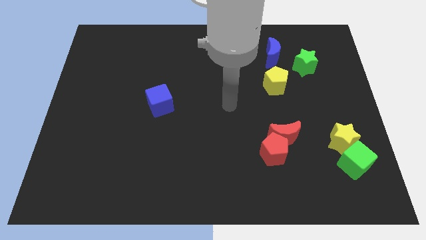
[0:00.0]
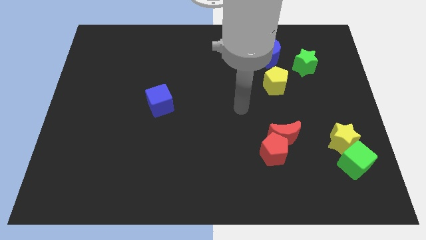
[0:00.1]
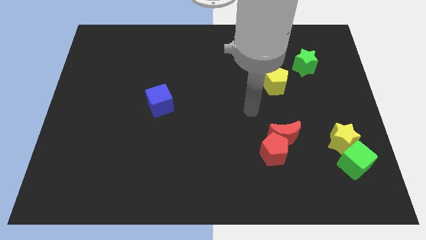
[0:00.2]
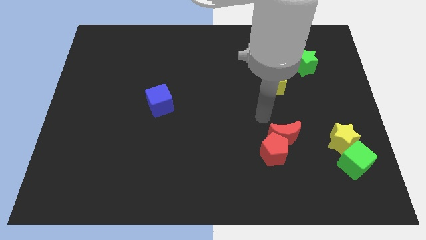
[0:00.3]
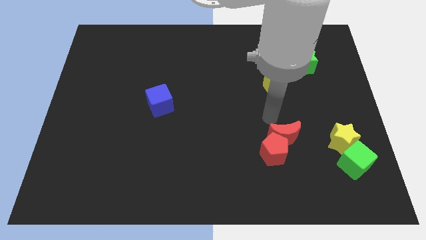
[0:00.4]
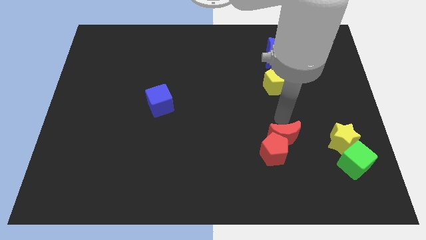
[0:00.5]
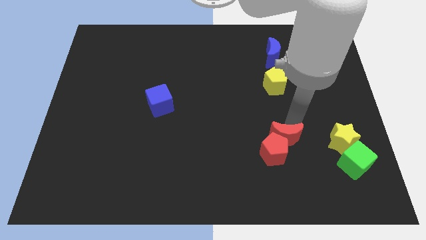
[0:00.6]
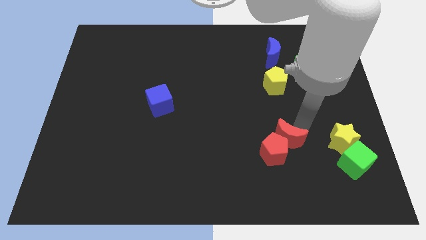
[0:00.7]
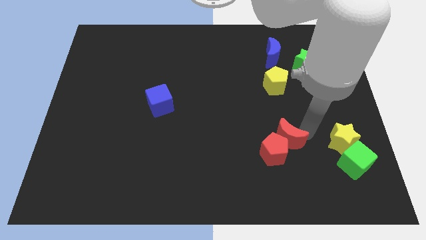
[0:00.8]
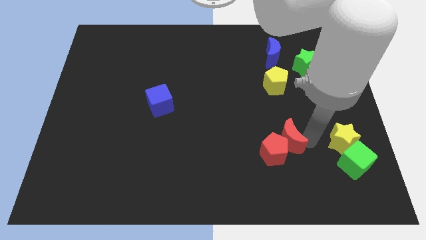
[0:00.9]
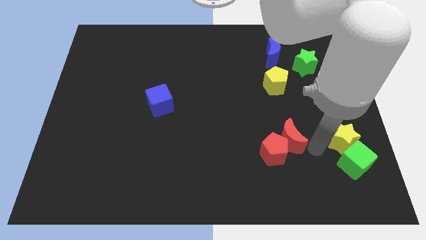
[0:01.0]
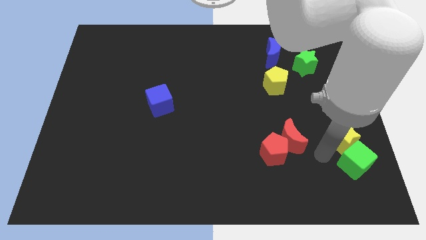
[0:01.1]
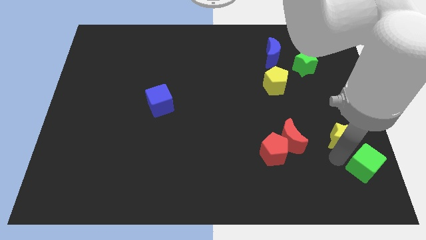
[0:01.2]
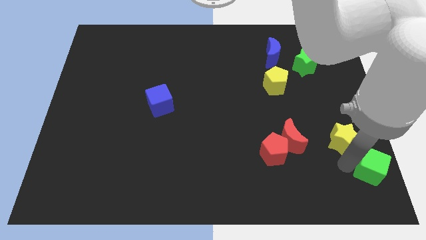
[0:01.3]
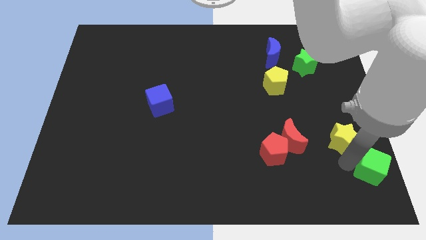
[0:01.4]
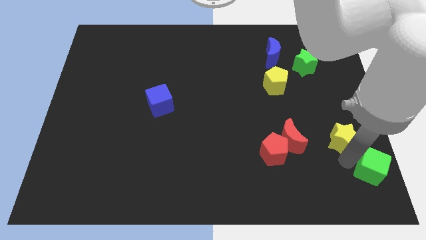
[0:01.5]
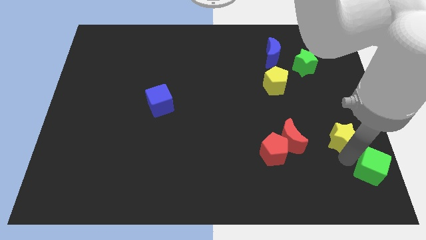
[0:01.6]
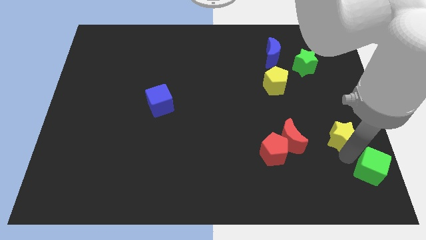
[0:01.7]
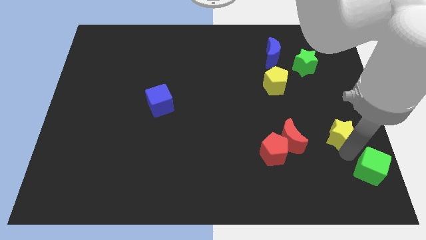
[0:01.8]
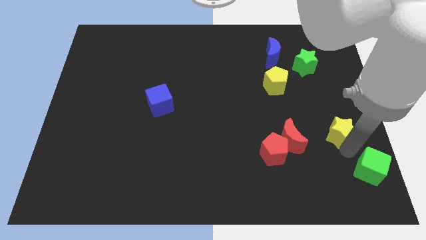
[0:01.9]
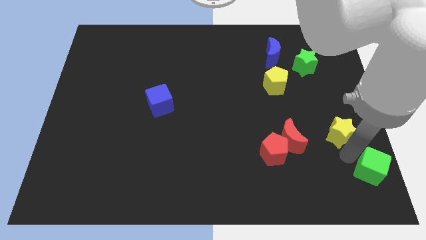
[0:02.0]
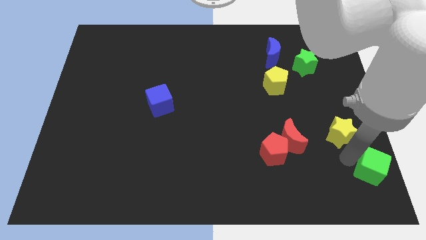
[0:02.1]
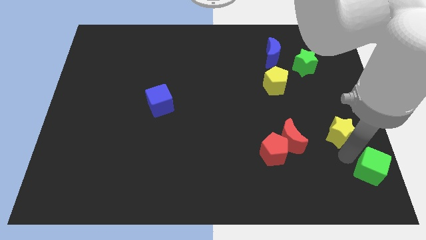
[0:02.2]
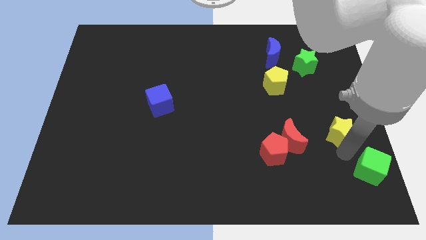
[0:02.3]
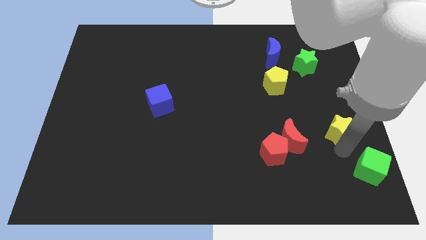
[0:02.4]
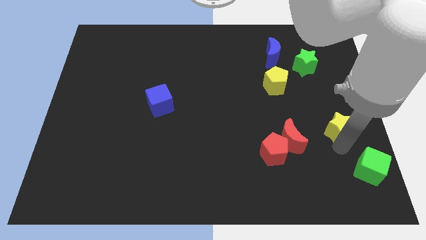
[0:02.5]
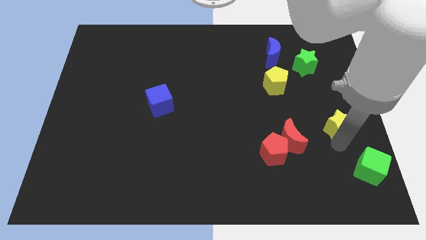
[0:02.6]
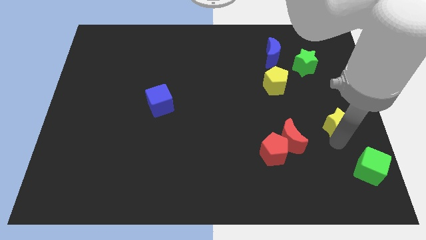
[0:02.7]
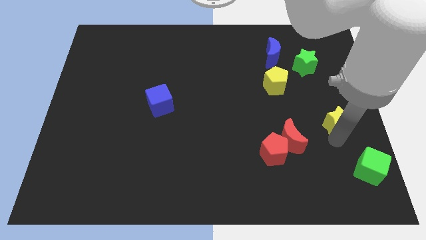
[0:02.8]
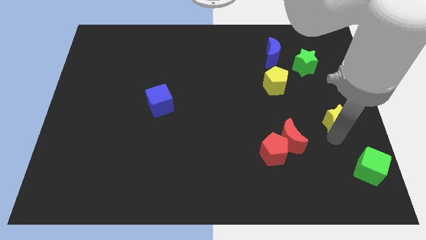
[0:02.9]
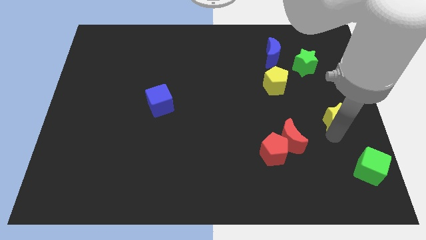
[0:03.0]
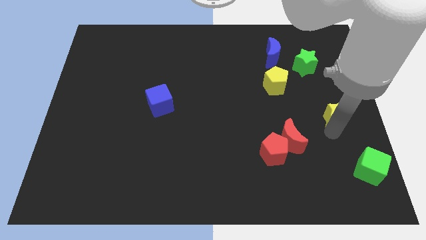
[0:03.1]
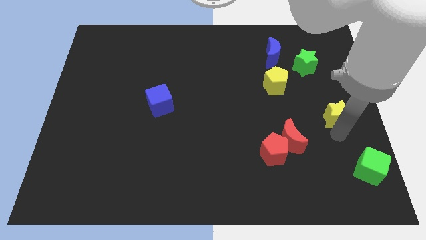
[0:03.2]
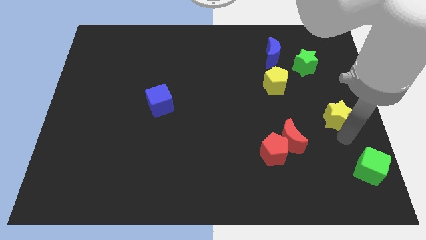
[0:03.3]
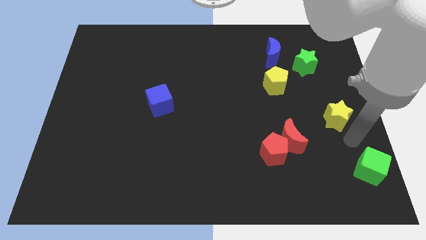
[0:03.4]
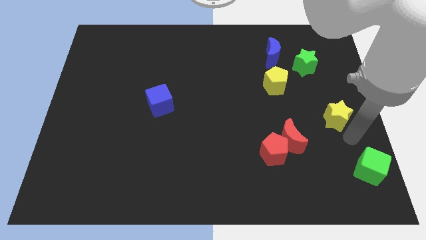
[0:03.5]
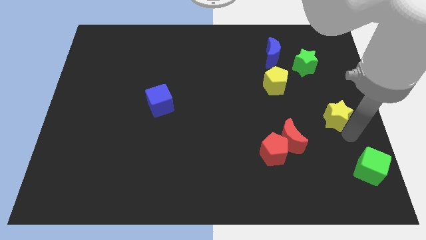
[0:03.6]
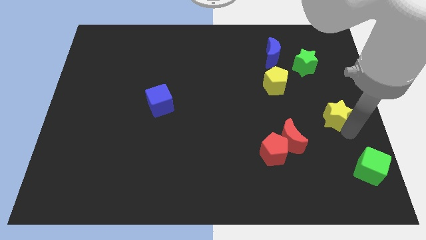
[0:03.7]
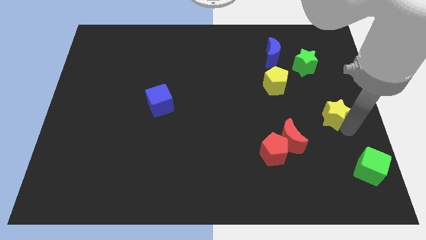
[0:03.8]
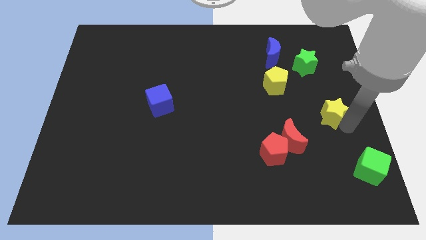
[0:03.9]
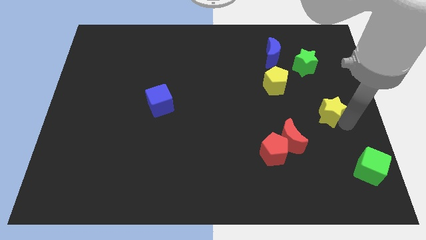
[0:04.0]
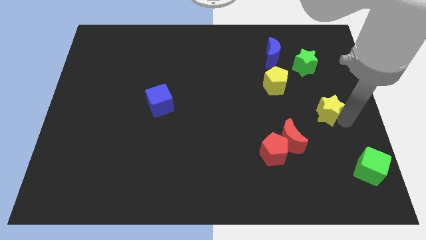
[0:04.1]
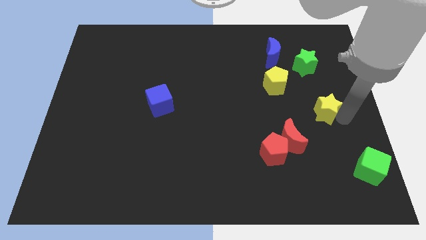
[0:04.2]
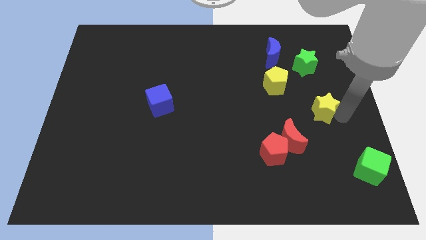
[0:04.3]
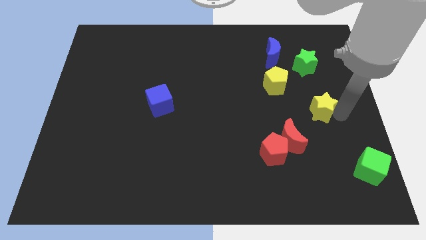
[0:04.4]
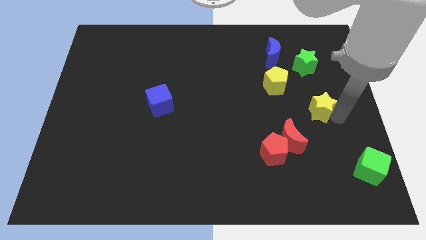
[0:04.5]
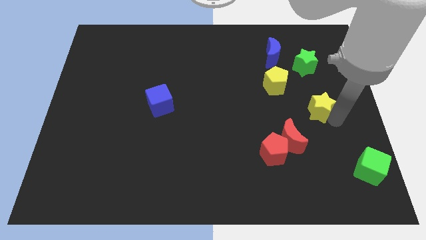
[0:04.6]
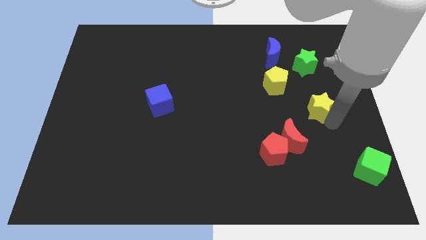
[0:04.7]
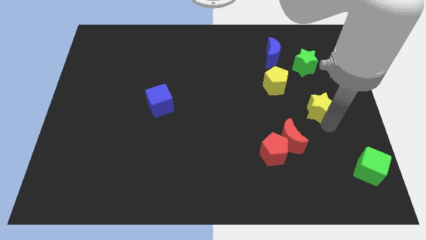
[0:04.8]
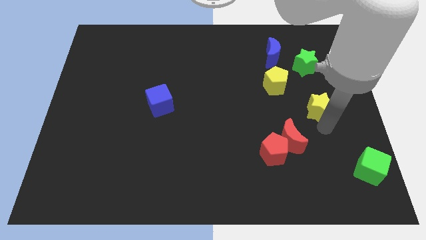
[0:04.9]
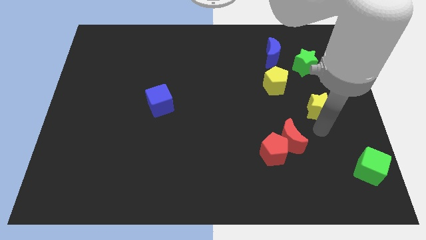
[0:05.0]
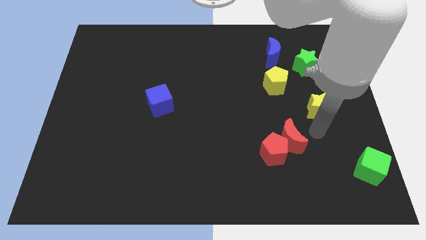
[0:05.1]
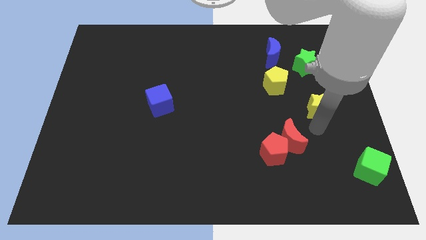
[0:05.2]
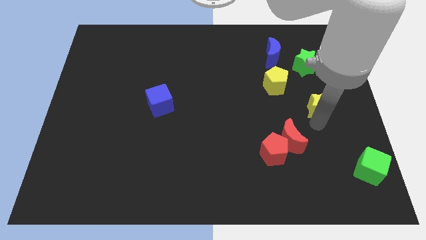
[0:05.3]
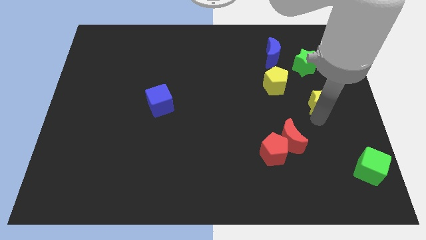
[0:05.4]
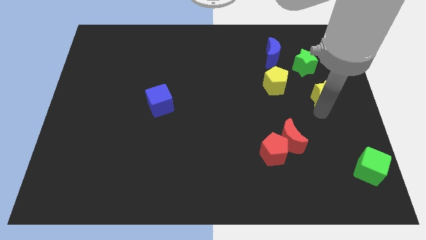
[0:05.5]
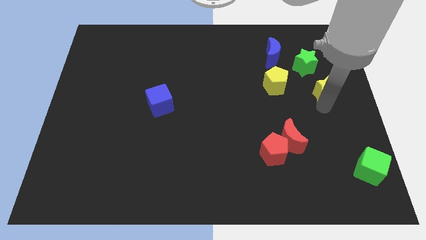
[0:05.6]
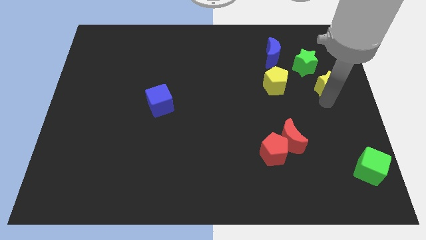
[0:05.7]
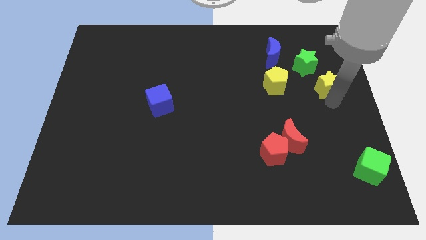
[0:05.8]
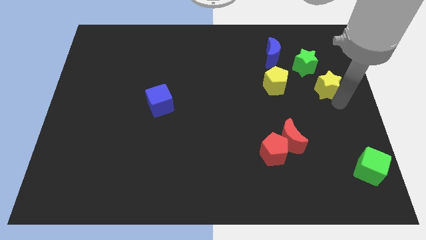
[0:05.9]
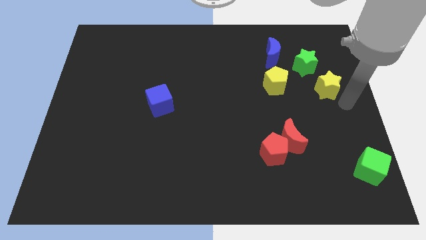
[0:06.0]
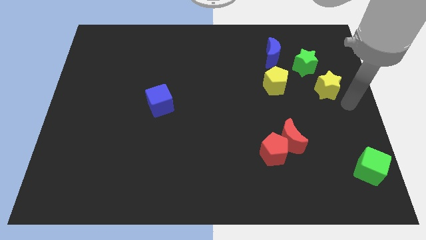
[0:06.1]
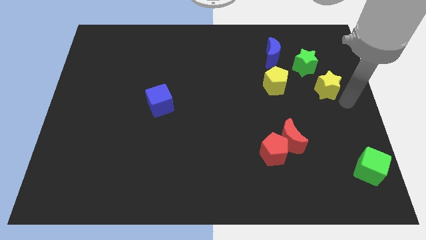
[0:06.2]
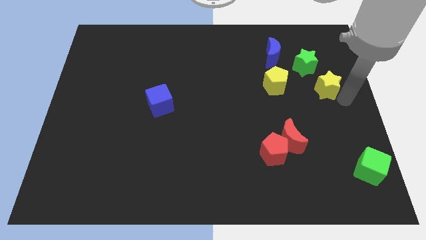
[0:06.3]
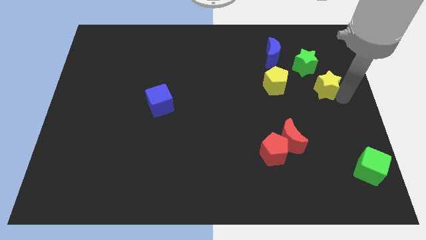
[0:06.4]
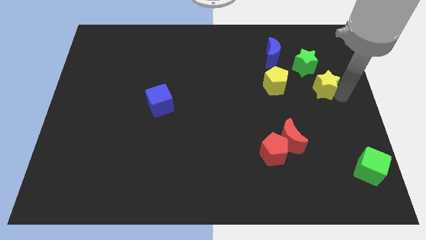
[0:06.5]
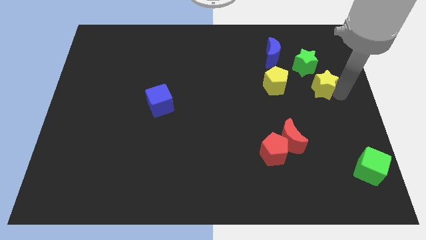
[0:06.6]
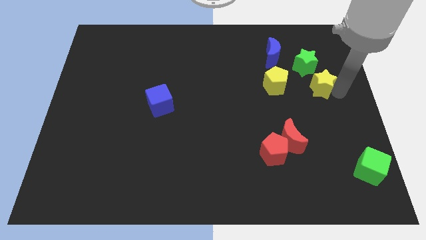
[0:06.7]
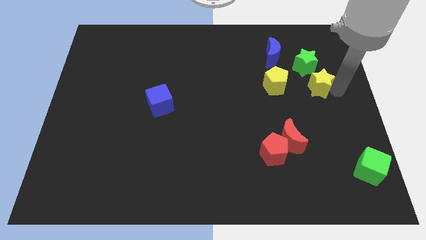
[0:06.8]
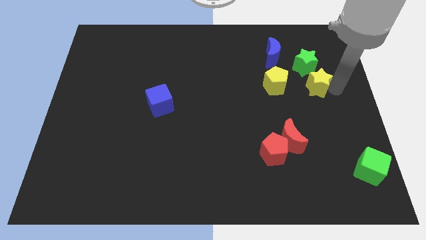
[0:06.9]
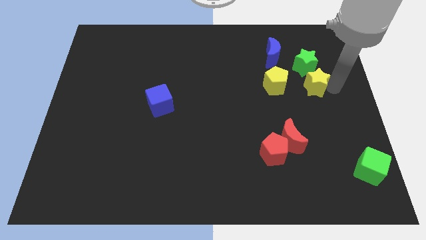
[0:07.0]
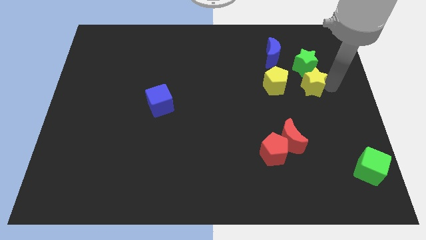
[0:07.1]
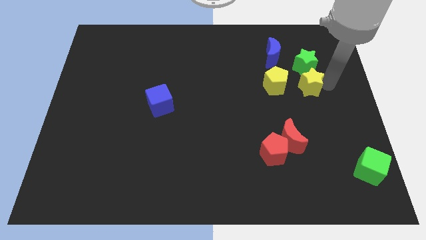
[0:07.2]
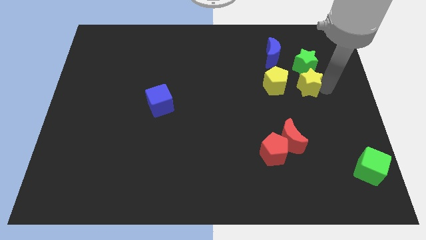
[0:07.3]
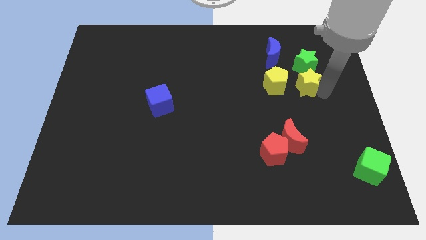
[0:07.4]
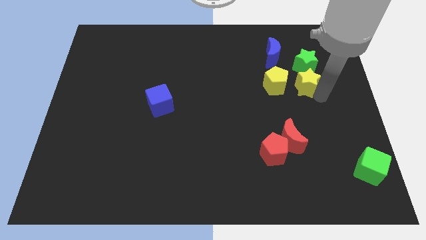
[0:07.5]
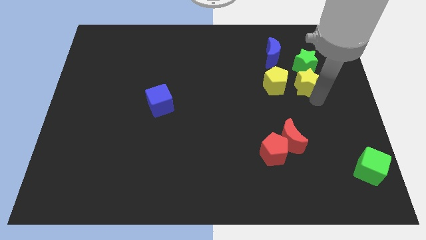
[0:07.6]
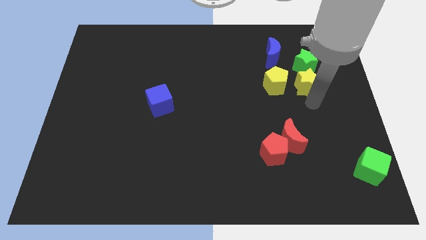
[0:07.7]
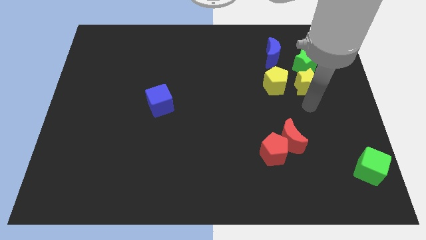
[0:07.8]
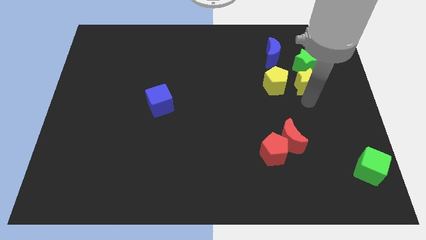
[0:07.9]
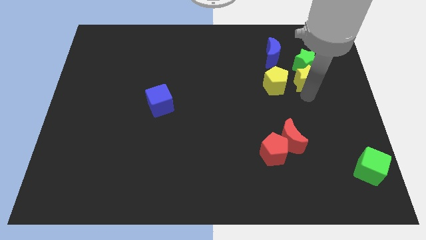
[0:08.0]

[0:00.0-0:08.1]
put the yellow star towards the green star
